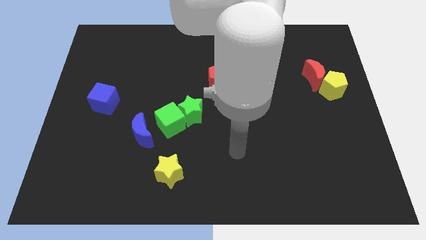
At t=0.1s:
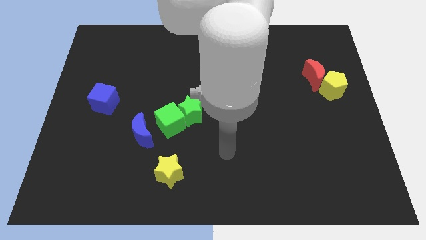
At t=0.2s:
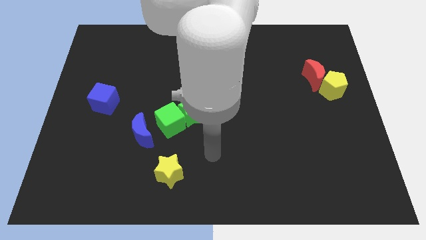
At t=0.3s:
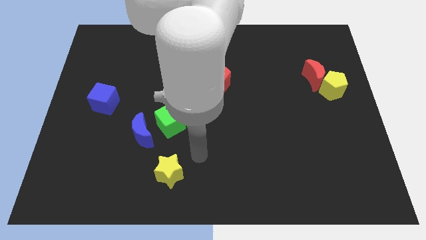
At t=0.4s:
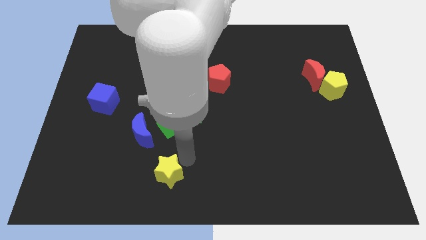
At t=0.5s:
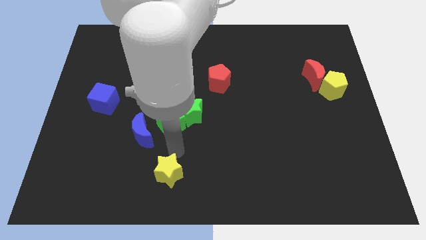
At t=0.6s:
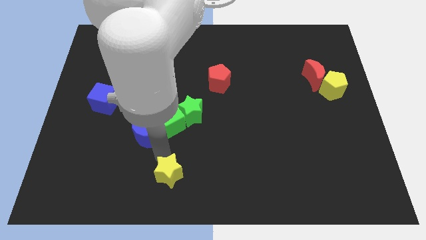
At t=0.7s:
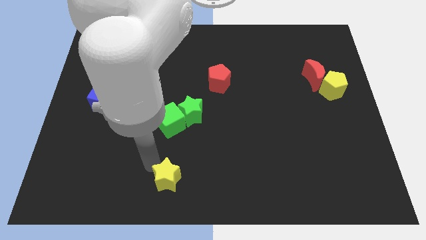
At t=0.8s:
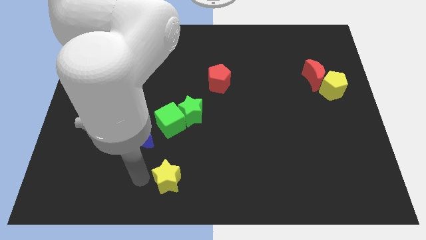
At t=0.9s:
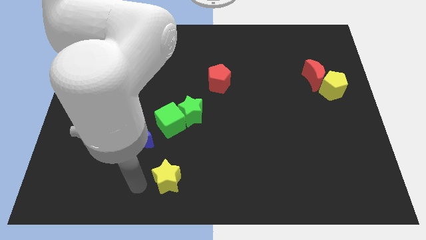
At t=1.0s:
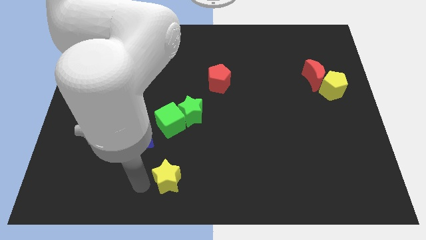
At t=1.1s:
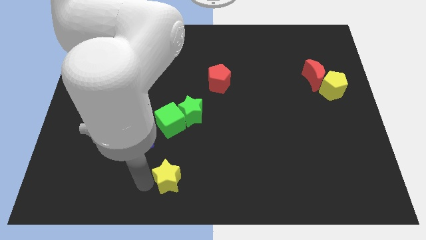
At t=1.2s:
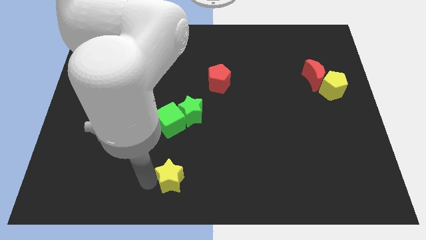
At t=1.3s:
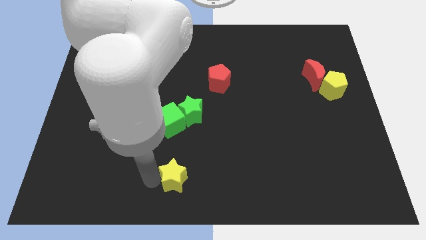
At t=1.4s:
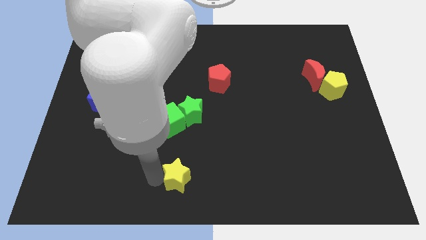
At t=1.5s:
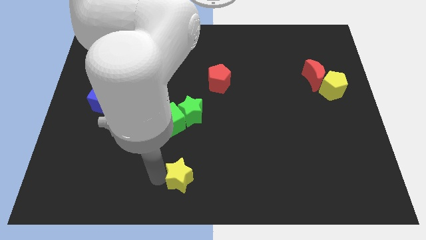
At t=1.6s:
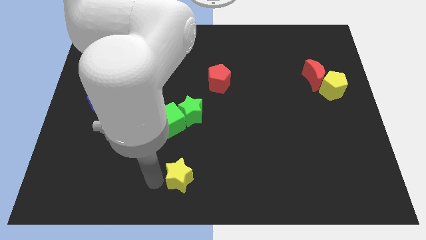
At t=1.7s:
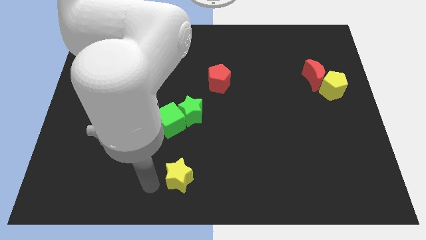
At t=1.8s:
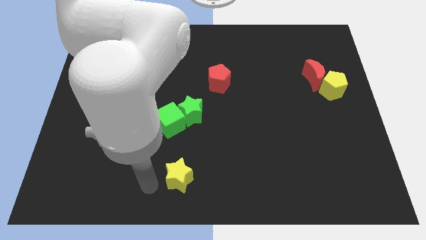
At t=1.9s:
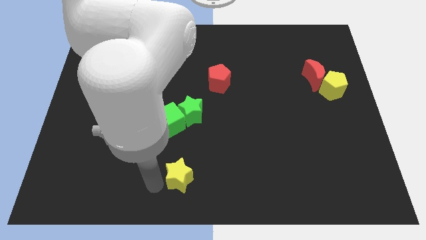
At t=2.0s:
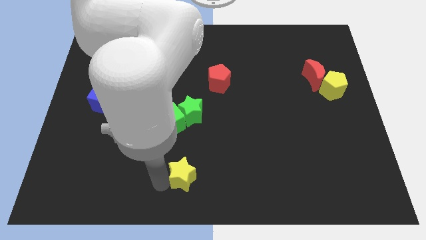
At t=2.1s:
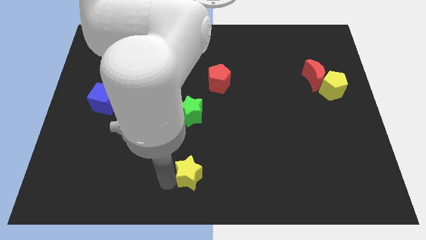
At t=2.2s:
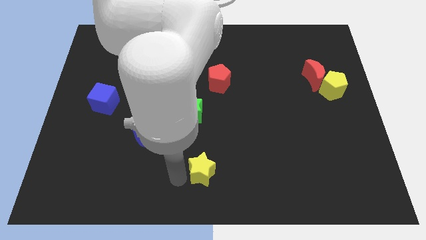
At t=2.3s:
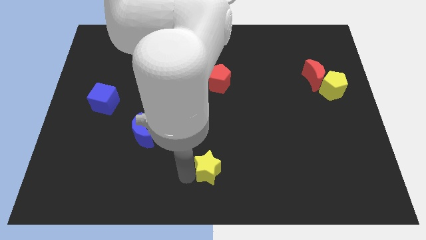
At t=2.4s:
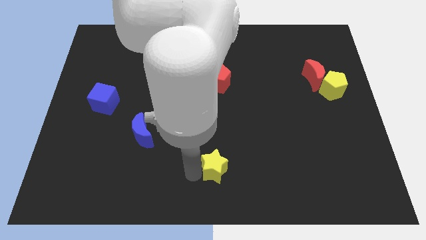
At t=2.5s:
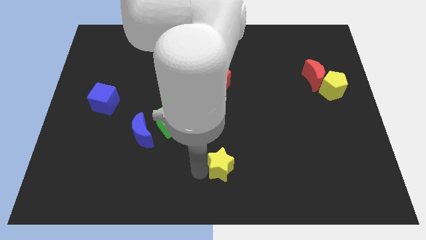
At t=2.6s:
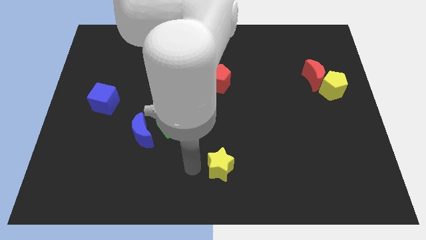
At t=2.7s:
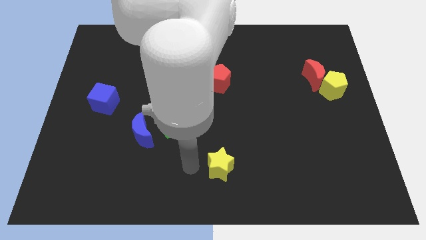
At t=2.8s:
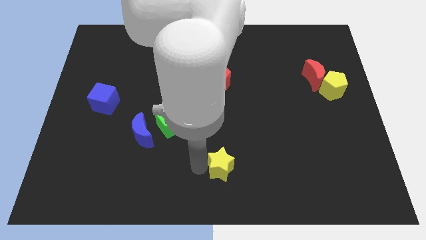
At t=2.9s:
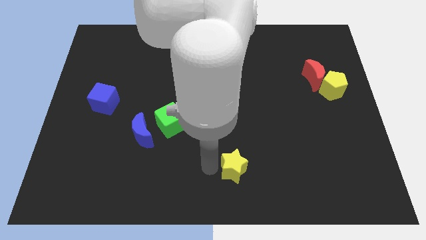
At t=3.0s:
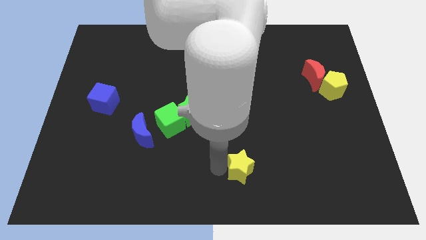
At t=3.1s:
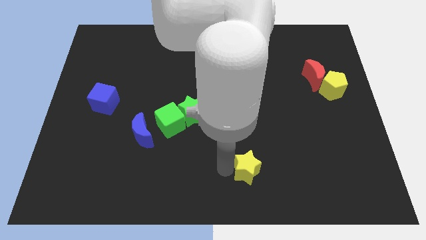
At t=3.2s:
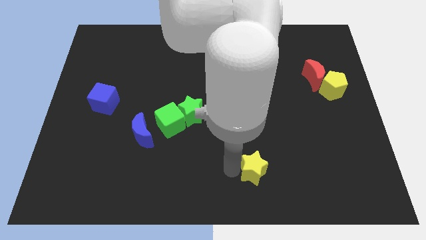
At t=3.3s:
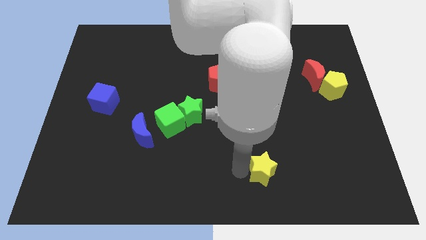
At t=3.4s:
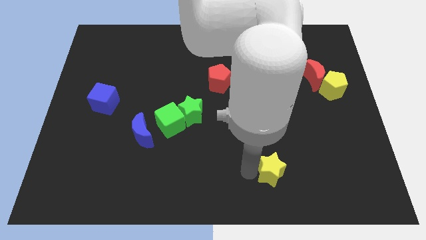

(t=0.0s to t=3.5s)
push the yellow star to the right

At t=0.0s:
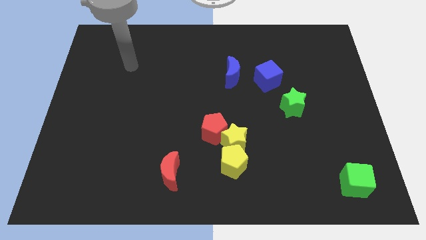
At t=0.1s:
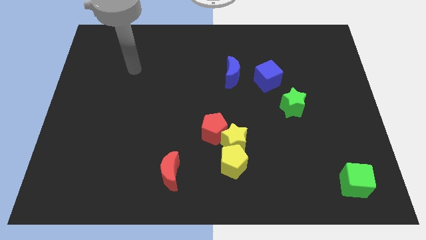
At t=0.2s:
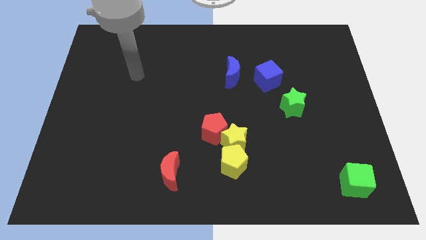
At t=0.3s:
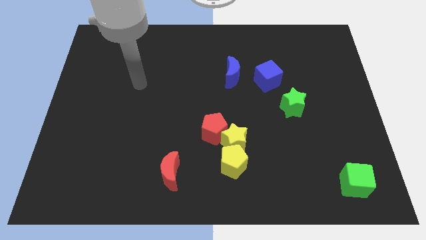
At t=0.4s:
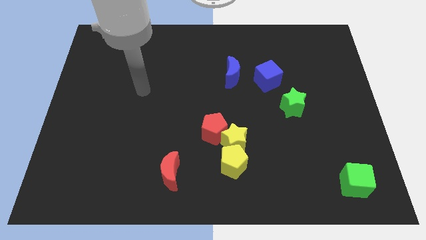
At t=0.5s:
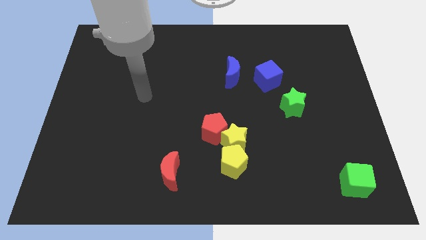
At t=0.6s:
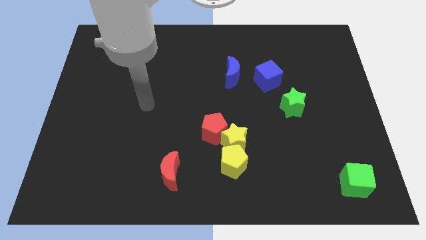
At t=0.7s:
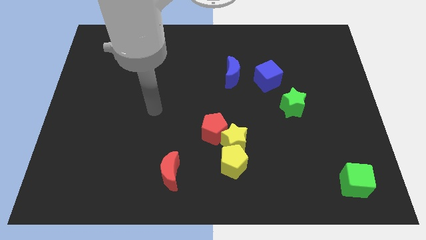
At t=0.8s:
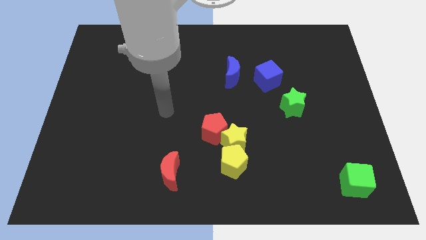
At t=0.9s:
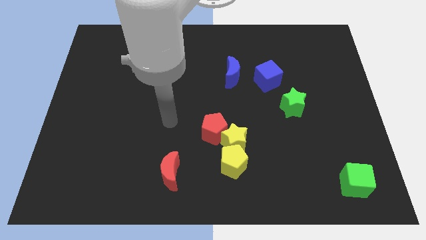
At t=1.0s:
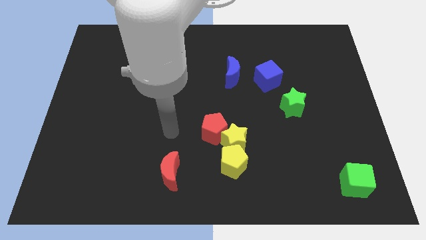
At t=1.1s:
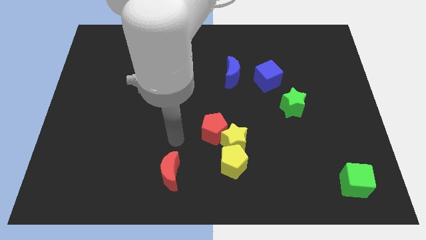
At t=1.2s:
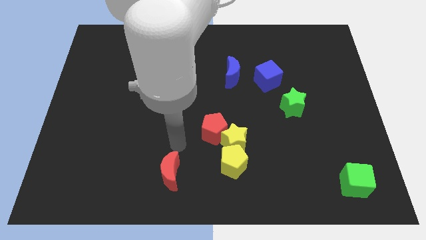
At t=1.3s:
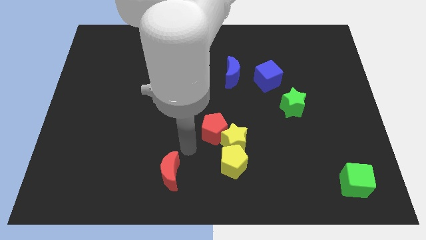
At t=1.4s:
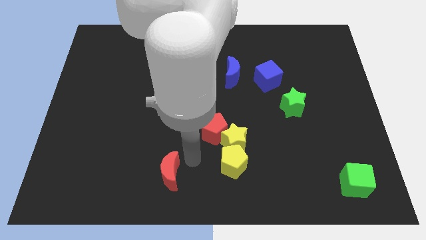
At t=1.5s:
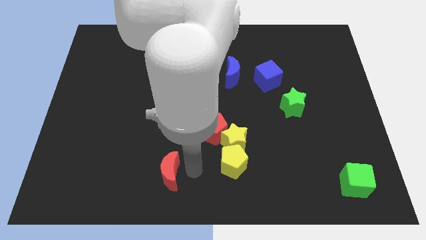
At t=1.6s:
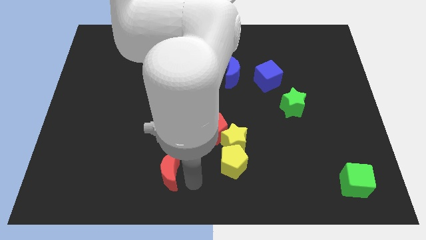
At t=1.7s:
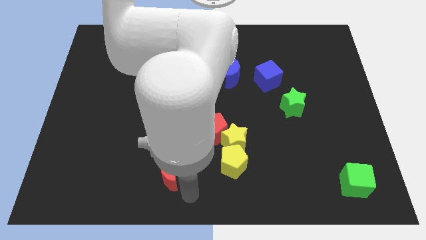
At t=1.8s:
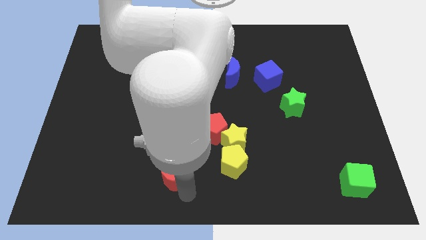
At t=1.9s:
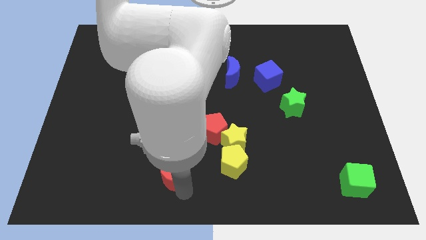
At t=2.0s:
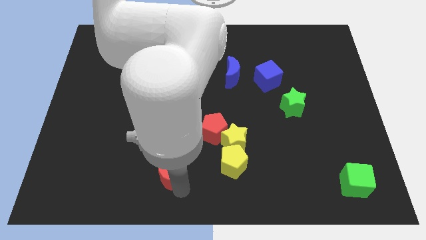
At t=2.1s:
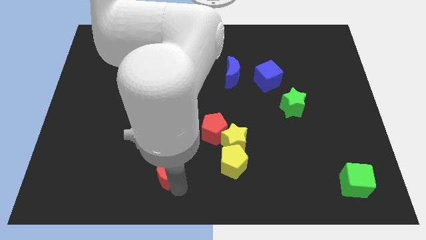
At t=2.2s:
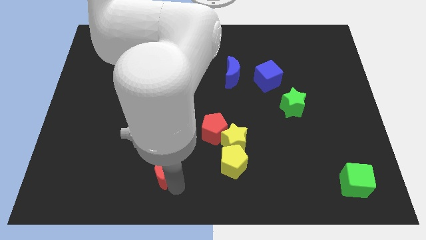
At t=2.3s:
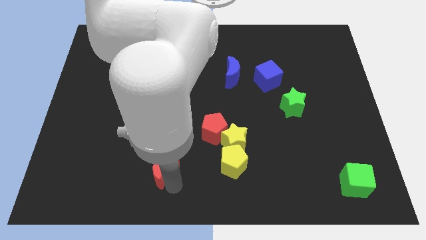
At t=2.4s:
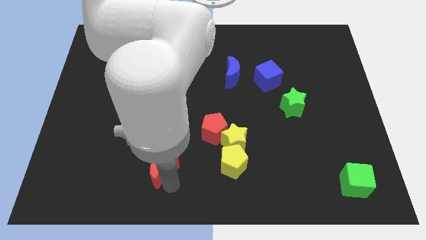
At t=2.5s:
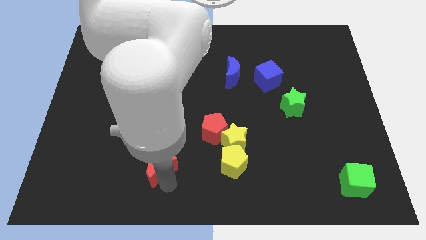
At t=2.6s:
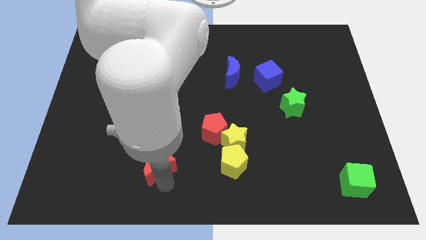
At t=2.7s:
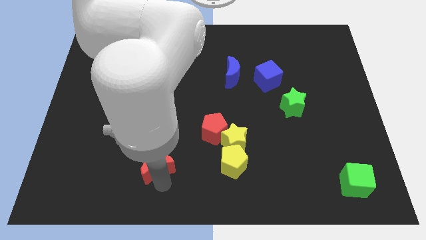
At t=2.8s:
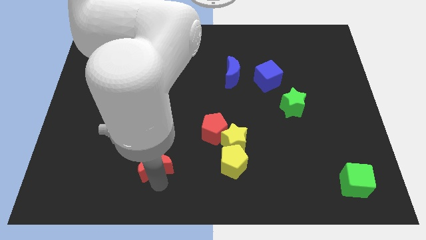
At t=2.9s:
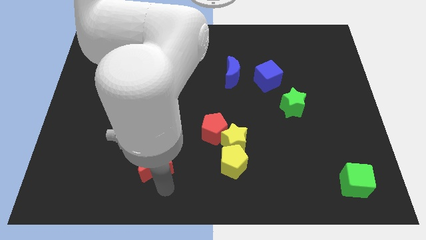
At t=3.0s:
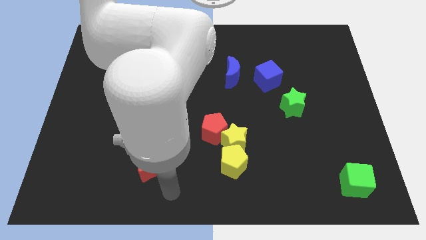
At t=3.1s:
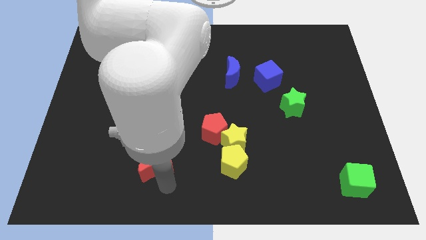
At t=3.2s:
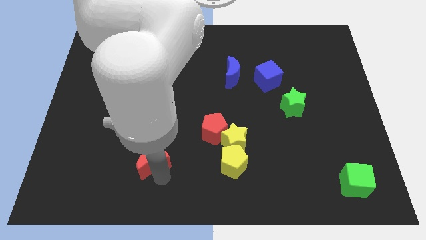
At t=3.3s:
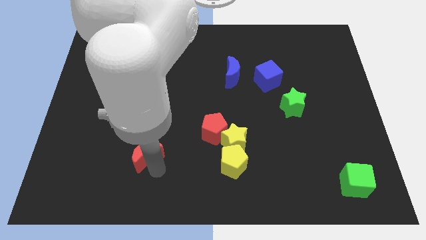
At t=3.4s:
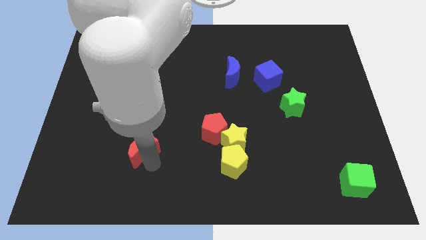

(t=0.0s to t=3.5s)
slightly slide the red moon up and to the left diagonally

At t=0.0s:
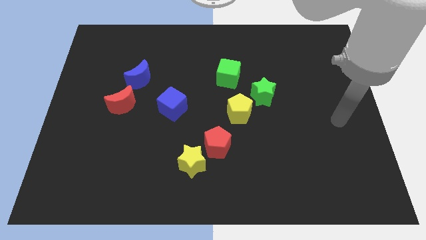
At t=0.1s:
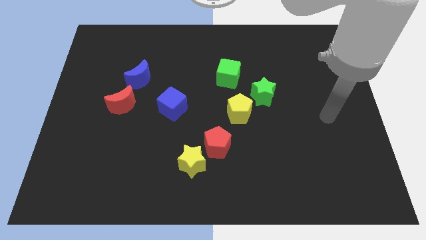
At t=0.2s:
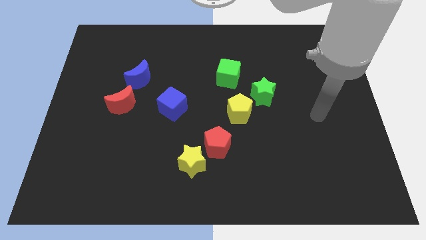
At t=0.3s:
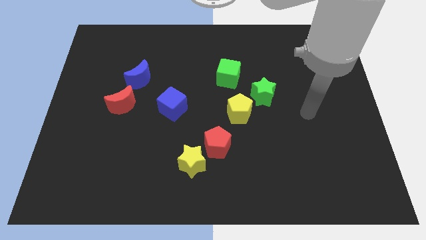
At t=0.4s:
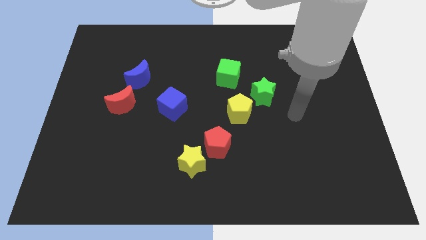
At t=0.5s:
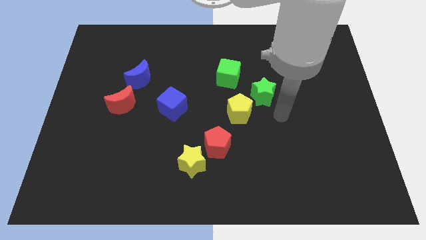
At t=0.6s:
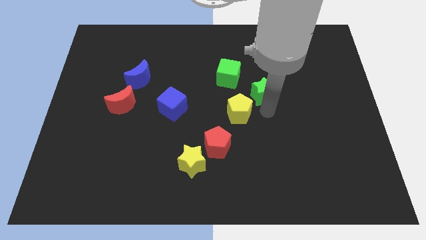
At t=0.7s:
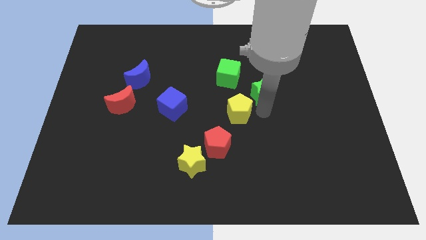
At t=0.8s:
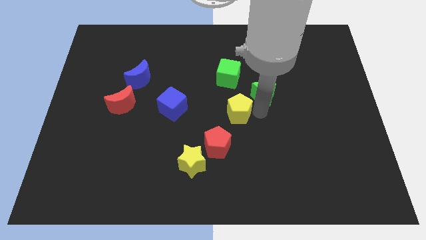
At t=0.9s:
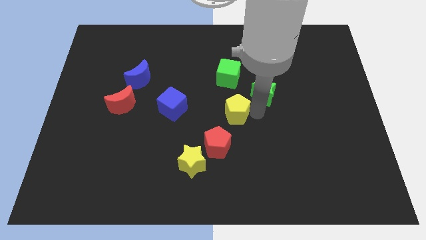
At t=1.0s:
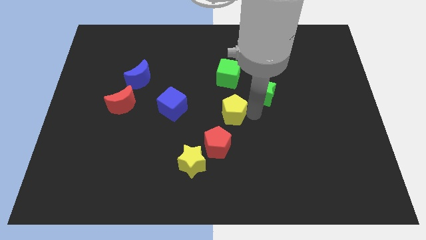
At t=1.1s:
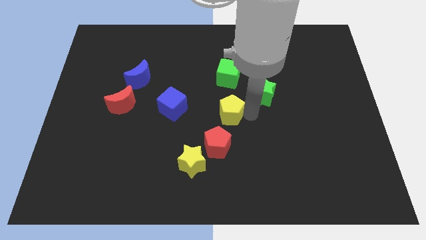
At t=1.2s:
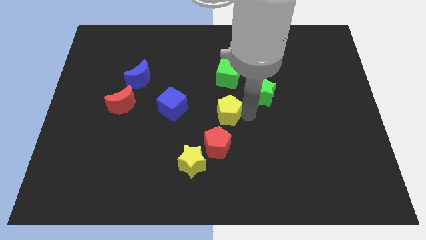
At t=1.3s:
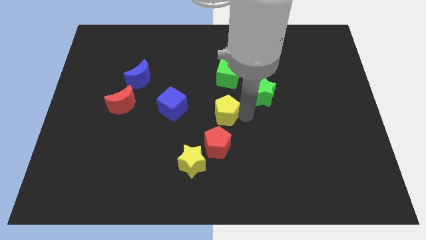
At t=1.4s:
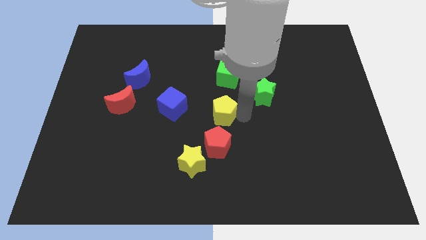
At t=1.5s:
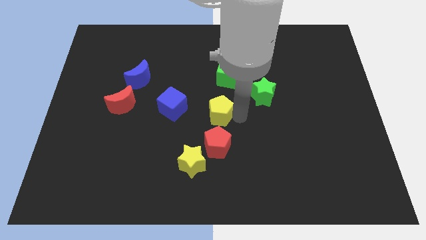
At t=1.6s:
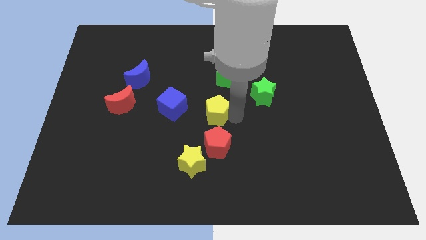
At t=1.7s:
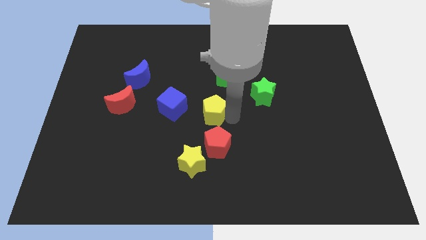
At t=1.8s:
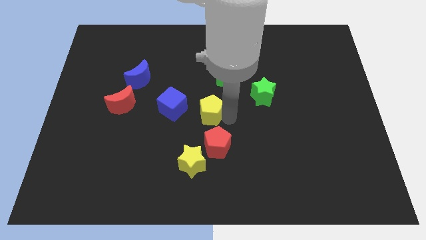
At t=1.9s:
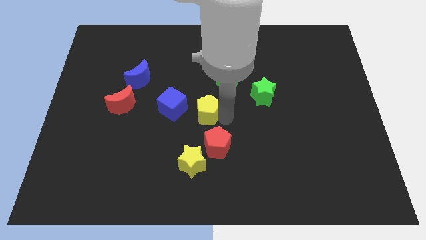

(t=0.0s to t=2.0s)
slide the yellow pentagon somewhat to the left
